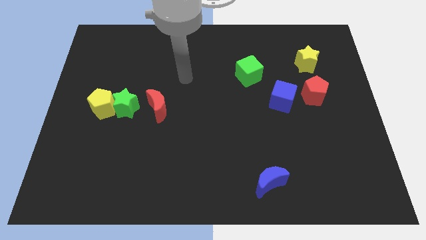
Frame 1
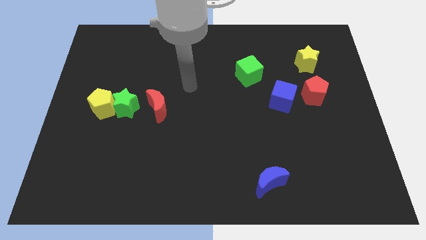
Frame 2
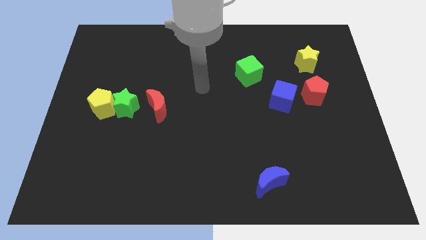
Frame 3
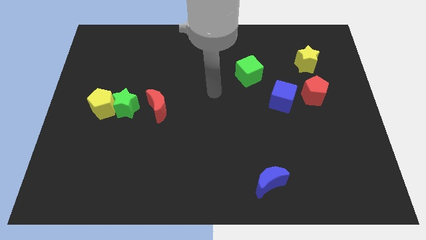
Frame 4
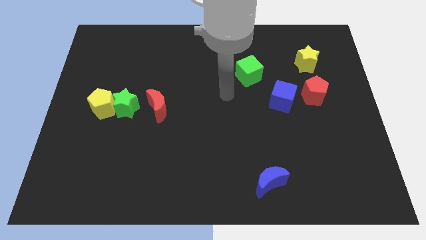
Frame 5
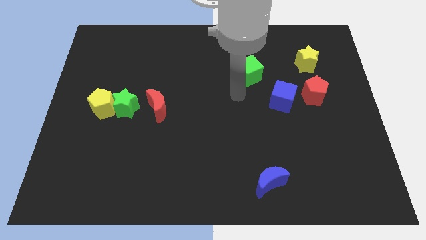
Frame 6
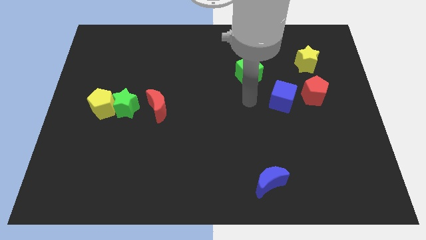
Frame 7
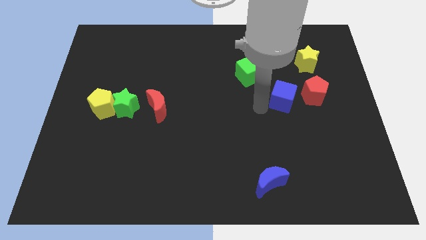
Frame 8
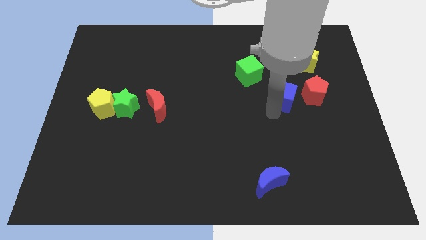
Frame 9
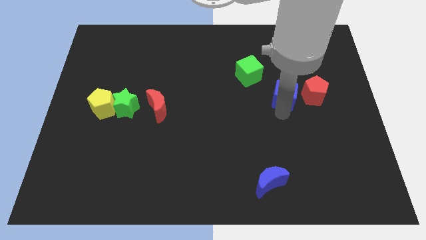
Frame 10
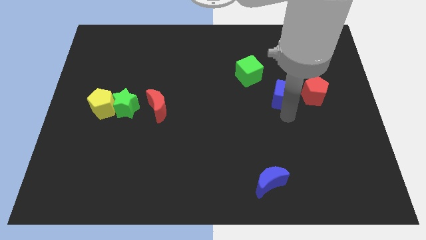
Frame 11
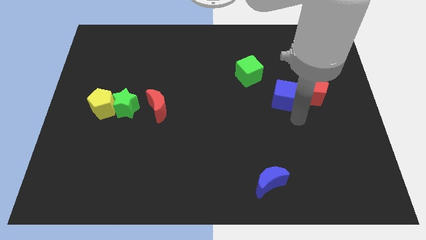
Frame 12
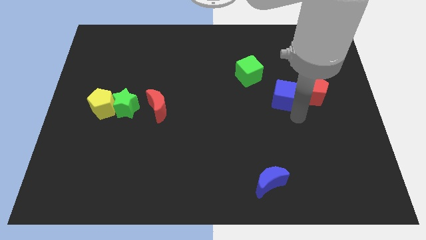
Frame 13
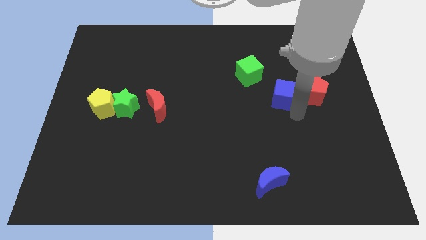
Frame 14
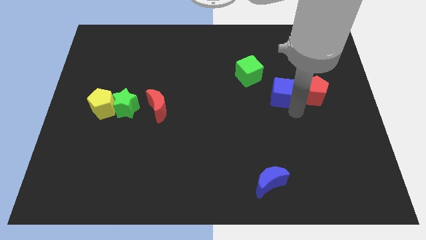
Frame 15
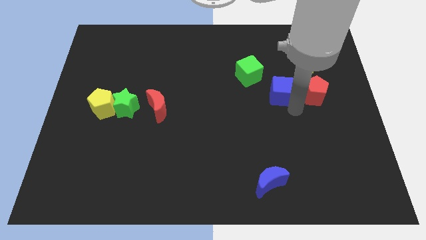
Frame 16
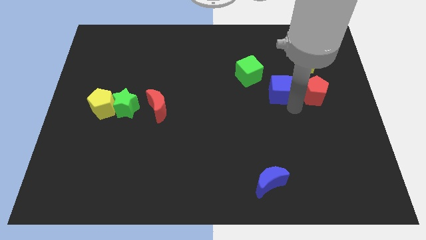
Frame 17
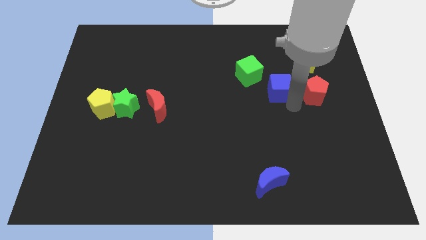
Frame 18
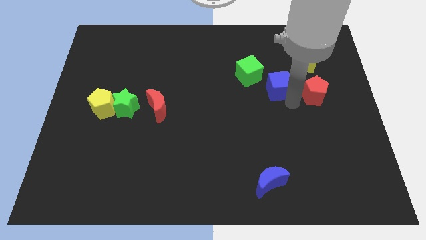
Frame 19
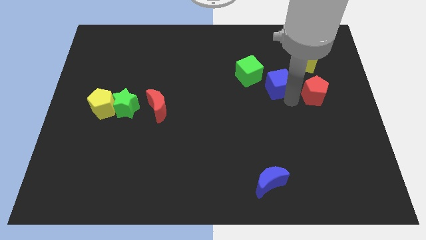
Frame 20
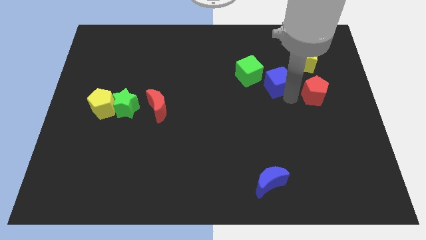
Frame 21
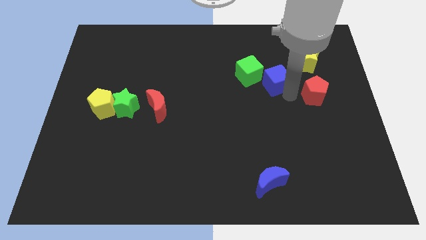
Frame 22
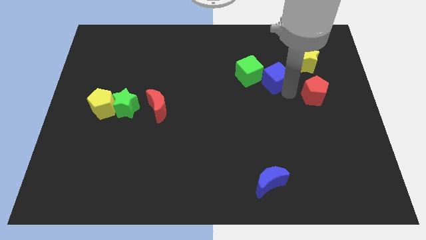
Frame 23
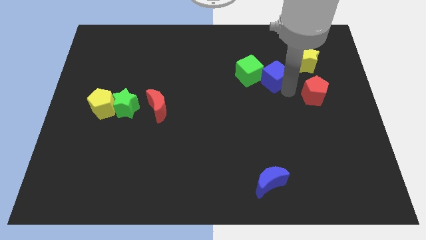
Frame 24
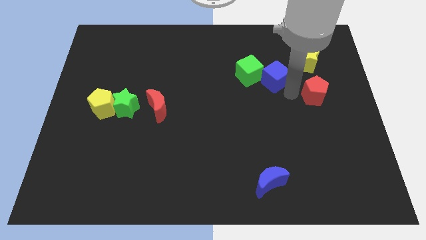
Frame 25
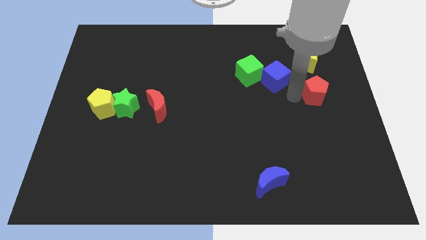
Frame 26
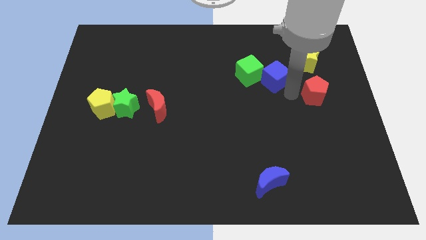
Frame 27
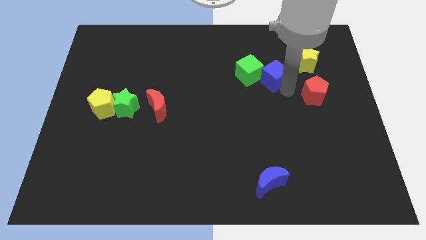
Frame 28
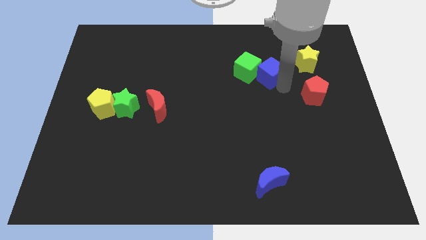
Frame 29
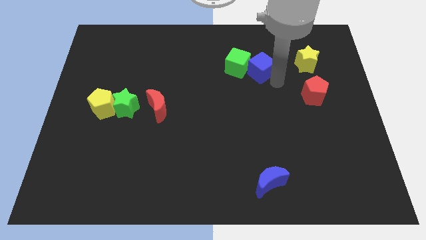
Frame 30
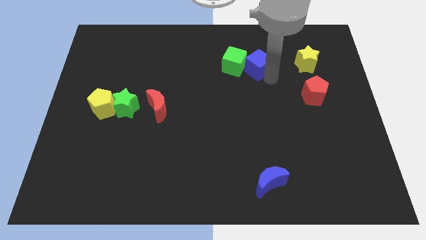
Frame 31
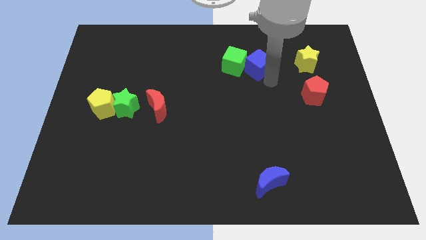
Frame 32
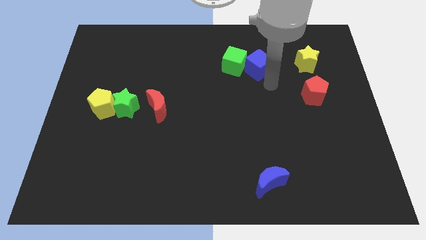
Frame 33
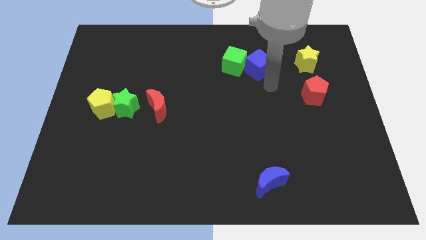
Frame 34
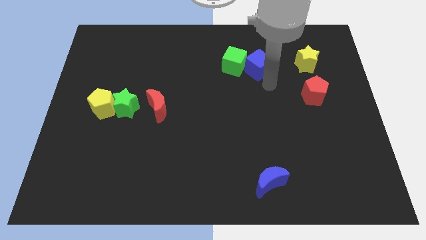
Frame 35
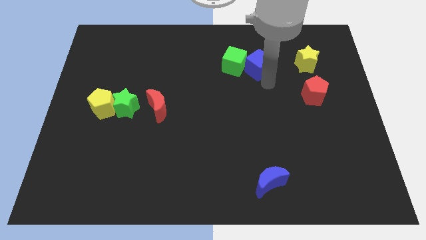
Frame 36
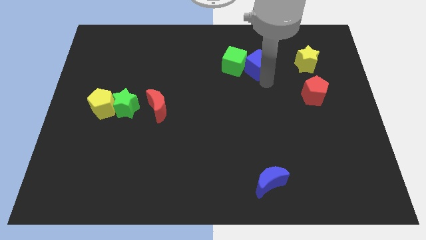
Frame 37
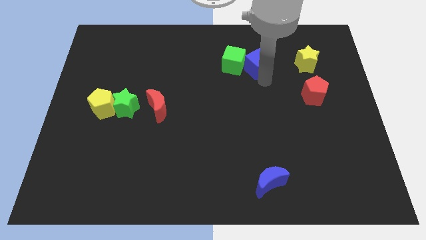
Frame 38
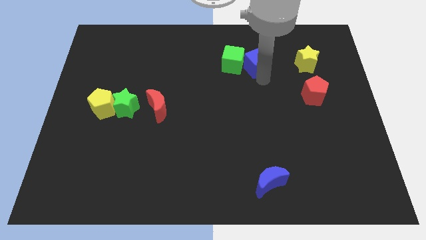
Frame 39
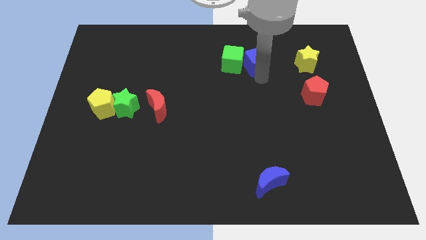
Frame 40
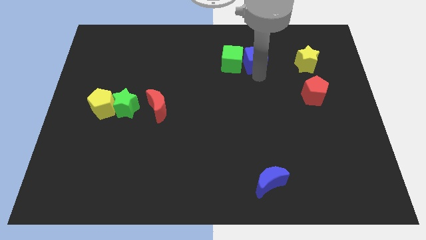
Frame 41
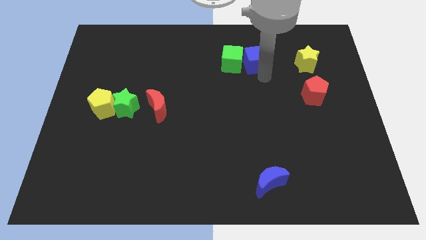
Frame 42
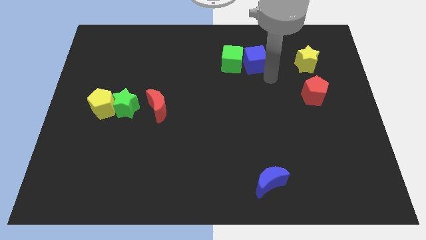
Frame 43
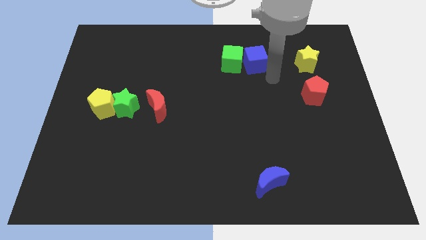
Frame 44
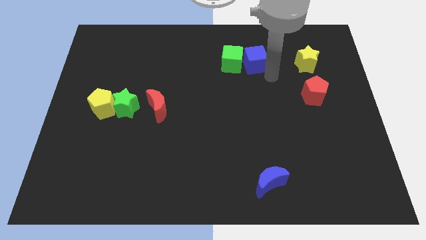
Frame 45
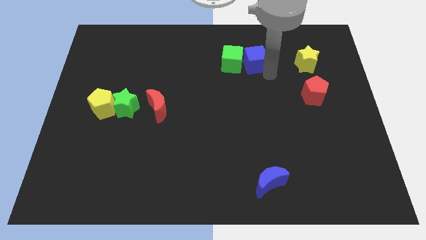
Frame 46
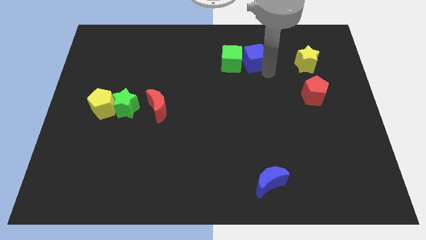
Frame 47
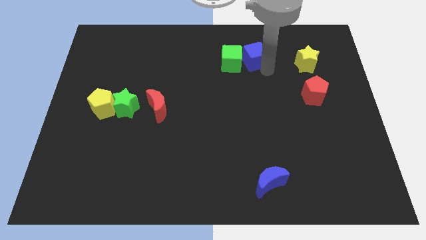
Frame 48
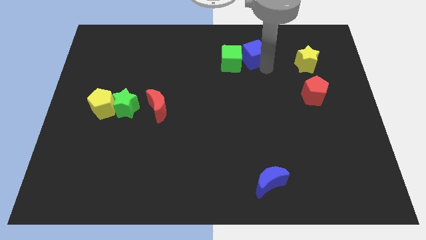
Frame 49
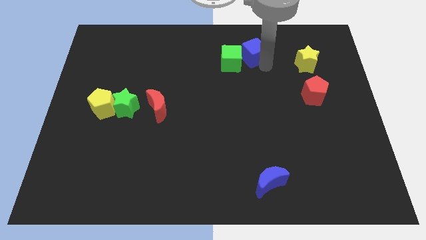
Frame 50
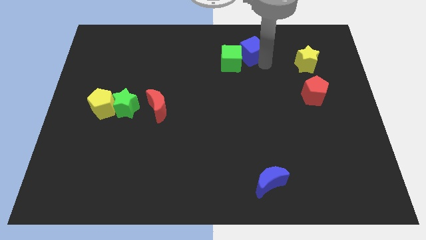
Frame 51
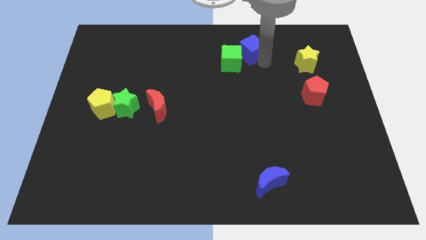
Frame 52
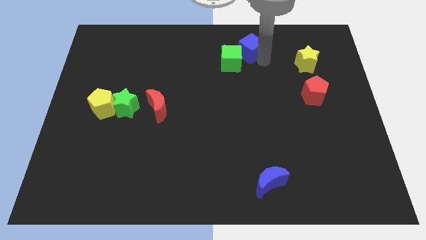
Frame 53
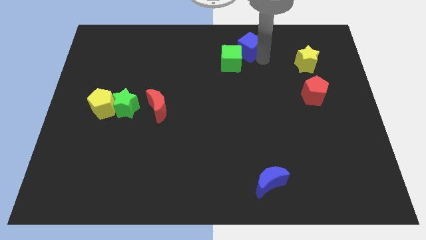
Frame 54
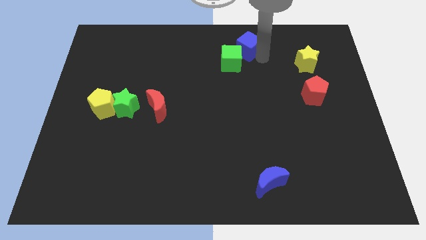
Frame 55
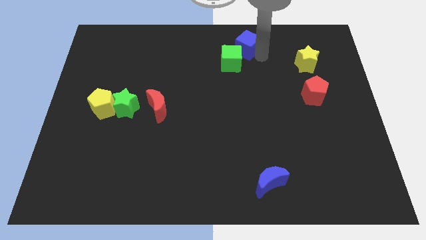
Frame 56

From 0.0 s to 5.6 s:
push the blue cube to the top side
